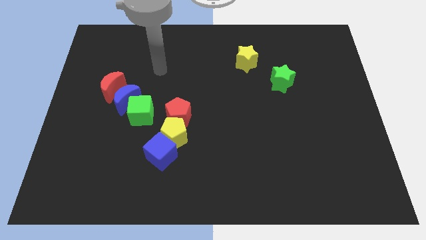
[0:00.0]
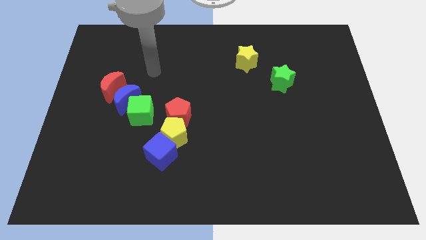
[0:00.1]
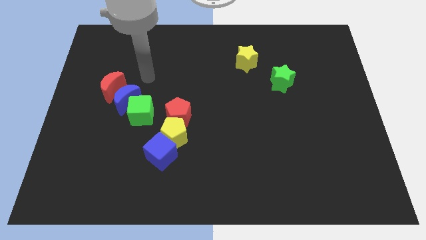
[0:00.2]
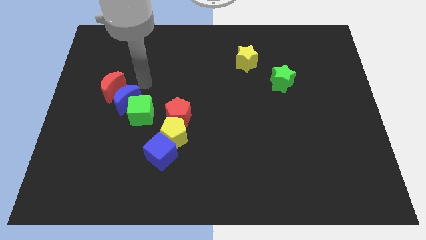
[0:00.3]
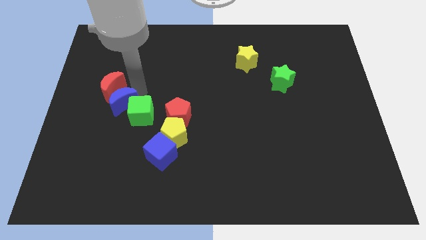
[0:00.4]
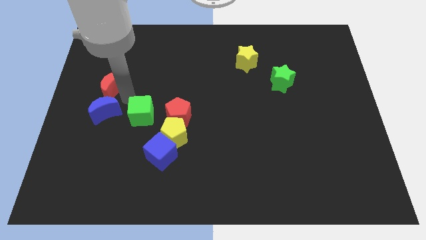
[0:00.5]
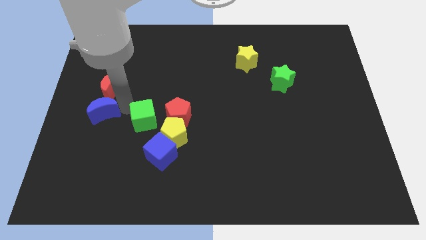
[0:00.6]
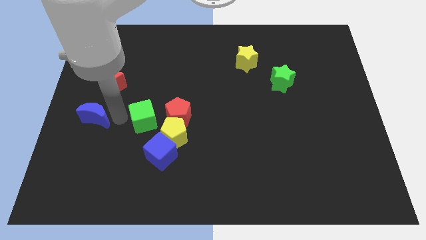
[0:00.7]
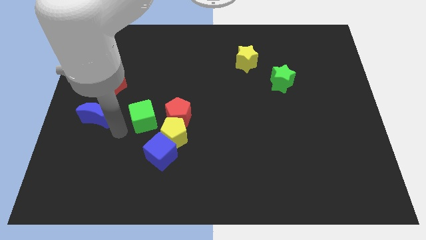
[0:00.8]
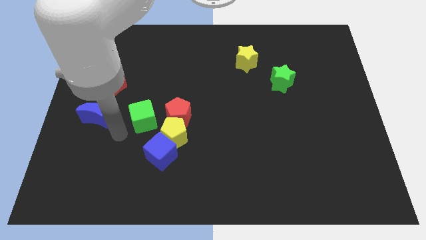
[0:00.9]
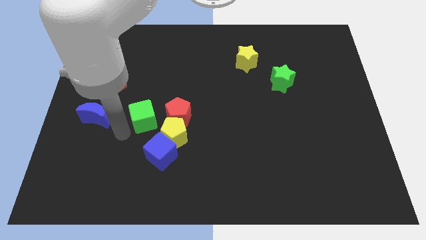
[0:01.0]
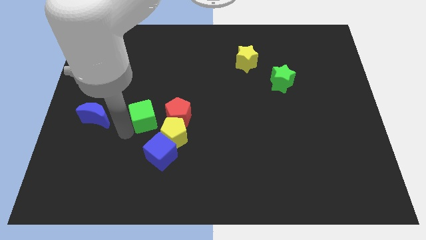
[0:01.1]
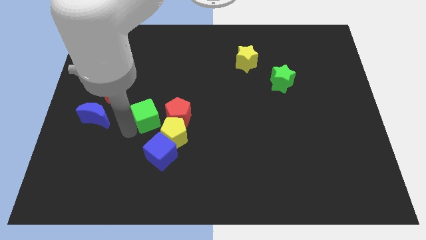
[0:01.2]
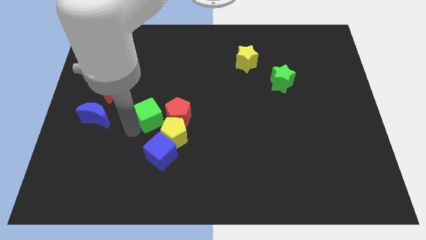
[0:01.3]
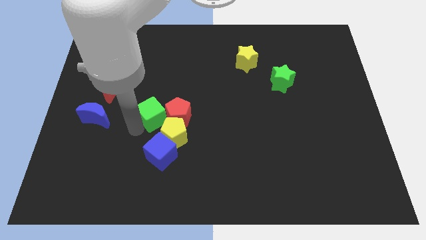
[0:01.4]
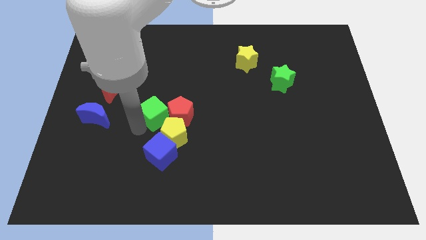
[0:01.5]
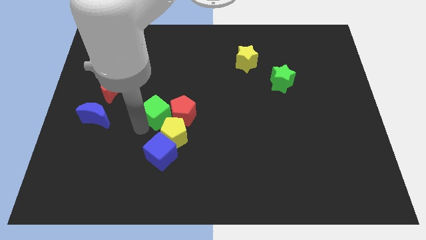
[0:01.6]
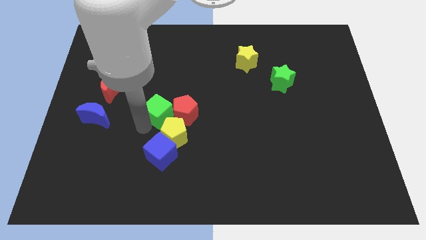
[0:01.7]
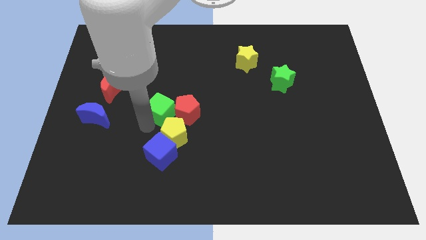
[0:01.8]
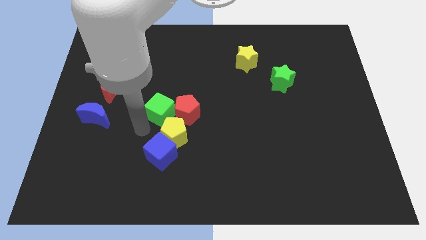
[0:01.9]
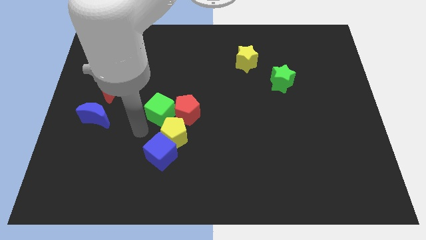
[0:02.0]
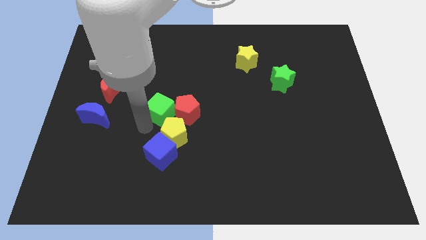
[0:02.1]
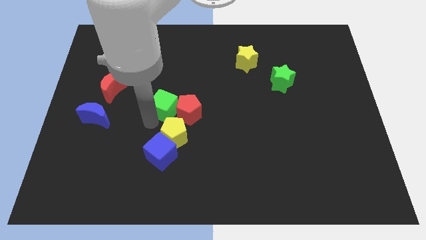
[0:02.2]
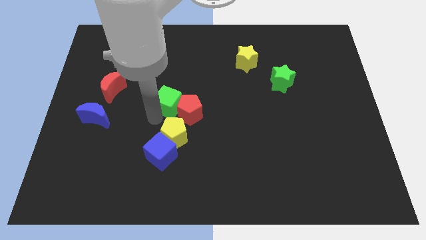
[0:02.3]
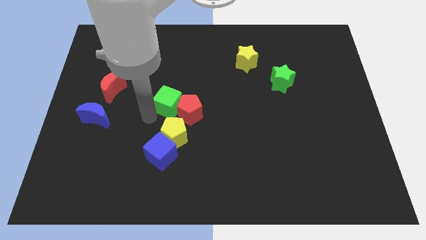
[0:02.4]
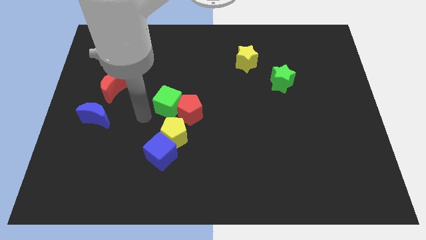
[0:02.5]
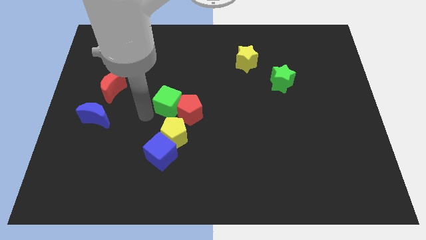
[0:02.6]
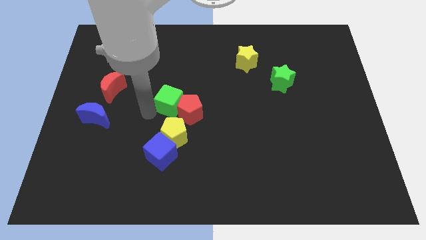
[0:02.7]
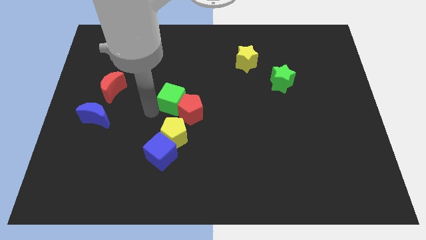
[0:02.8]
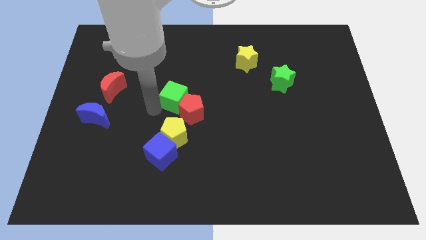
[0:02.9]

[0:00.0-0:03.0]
move the green cube right a little bit

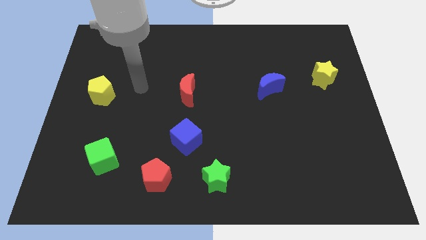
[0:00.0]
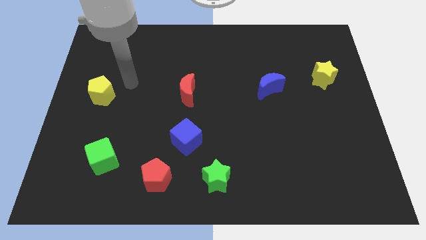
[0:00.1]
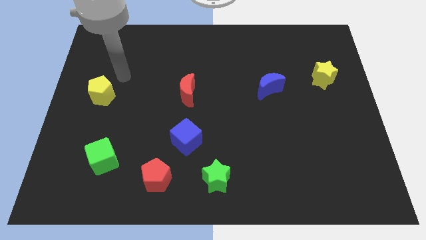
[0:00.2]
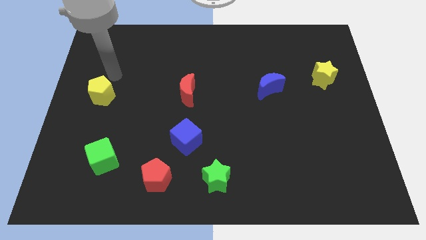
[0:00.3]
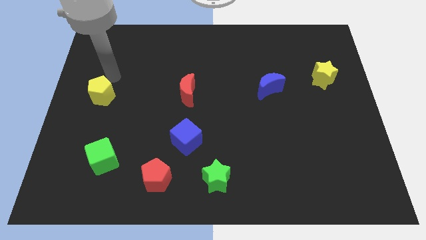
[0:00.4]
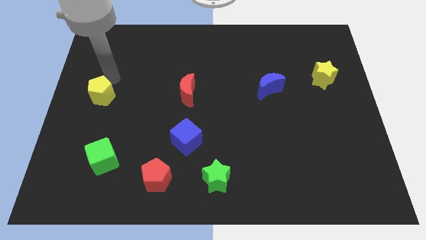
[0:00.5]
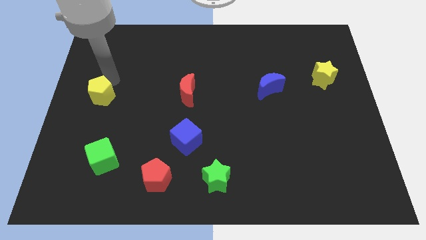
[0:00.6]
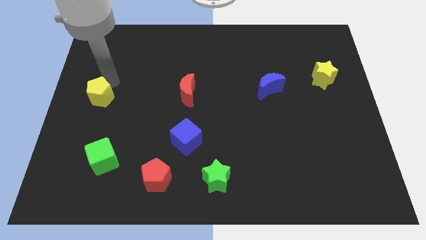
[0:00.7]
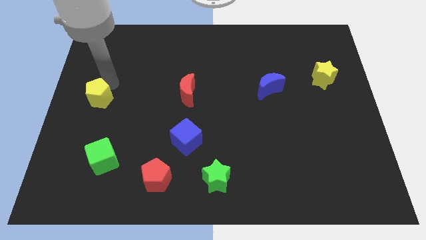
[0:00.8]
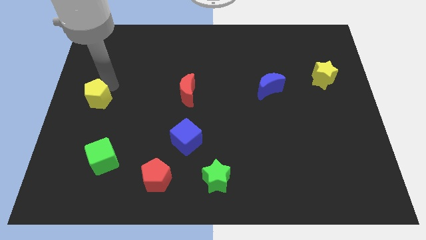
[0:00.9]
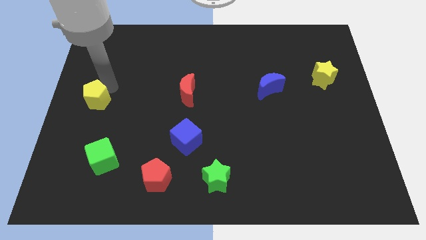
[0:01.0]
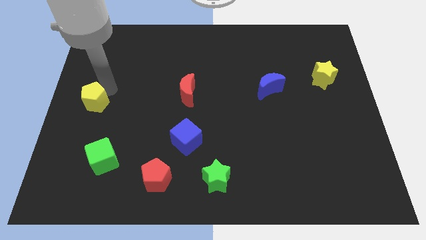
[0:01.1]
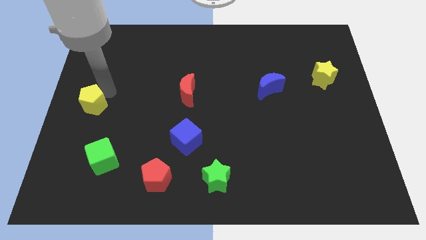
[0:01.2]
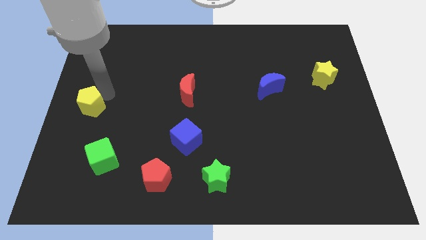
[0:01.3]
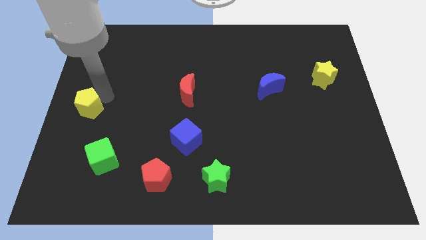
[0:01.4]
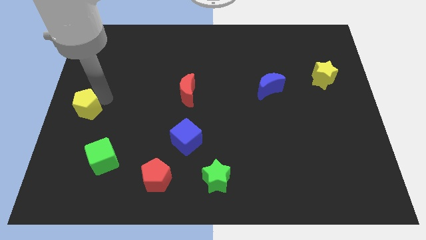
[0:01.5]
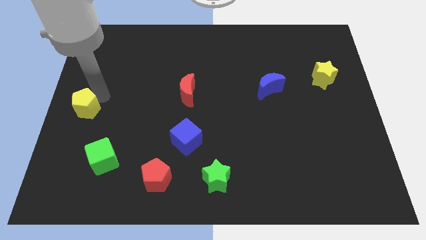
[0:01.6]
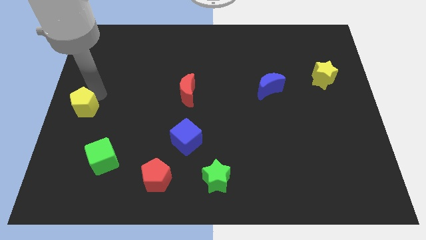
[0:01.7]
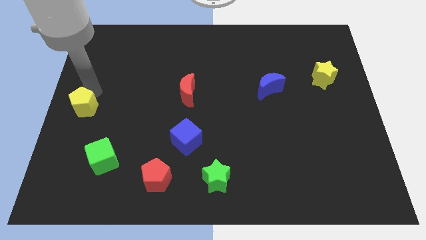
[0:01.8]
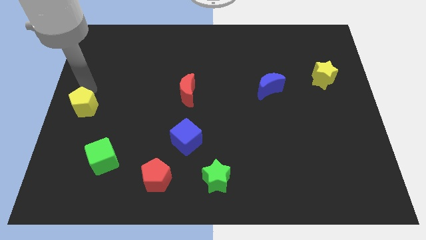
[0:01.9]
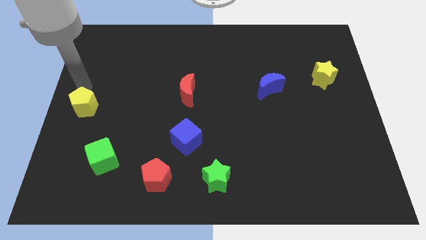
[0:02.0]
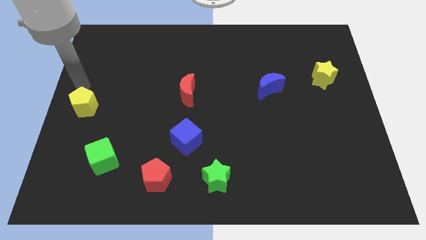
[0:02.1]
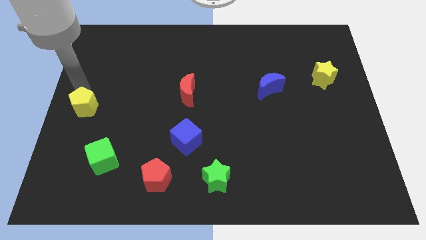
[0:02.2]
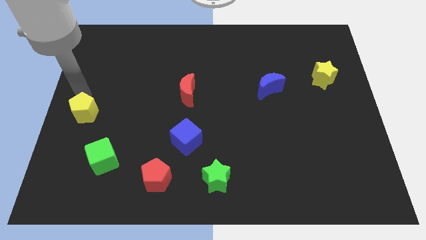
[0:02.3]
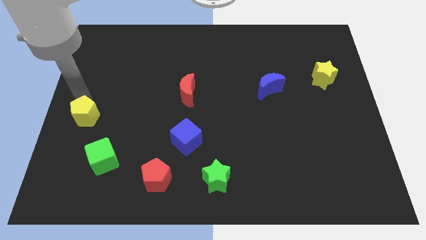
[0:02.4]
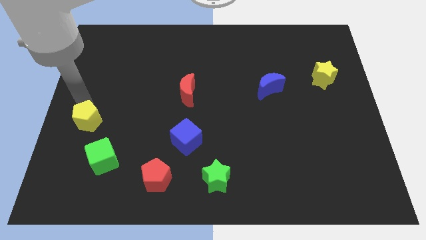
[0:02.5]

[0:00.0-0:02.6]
move the yellow pentagon down a little bit

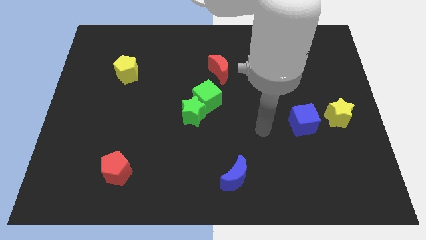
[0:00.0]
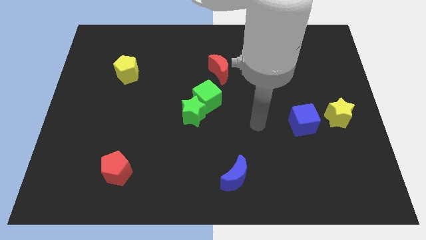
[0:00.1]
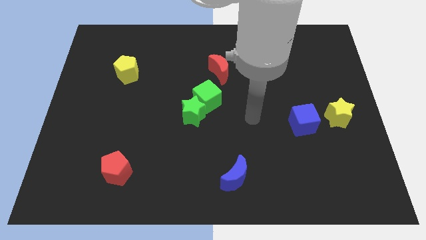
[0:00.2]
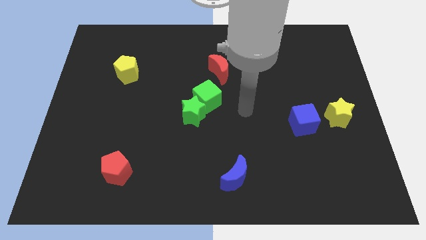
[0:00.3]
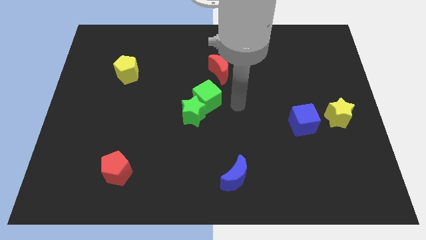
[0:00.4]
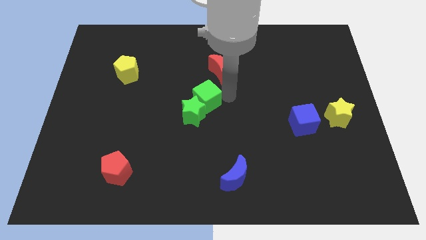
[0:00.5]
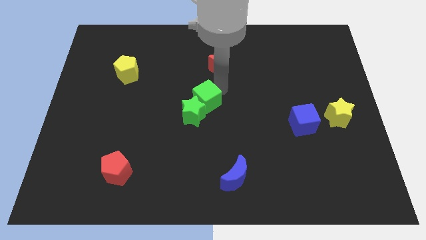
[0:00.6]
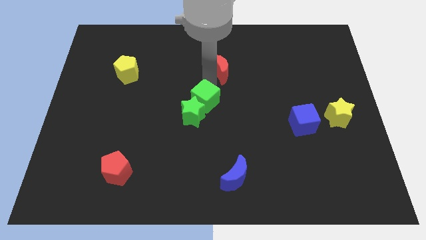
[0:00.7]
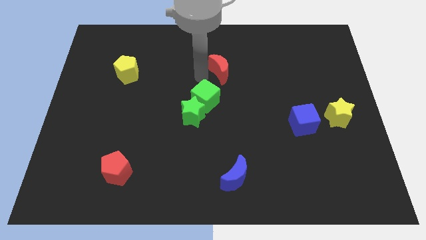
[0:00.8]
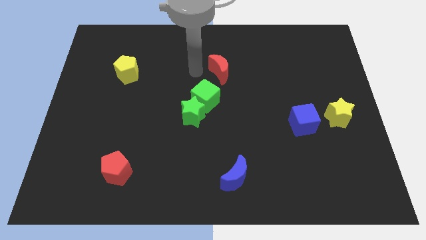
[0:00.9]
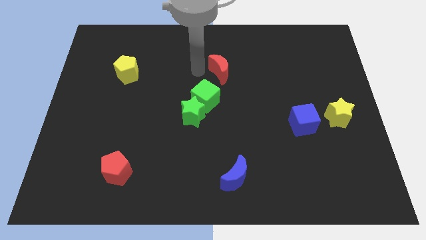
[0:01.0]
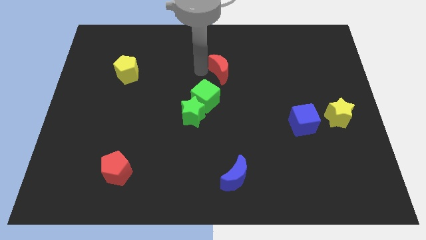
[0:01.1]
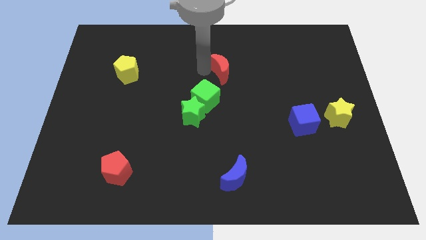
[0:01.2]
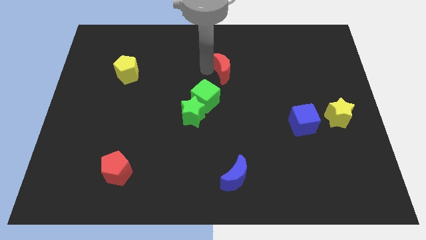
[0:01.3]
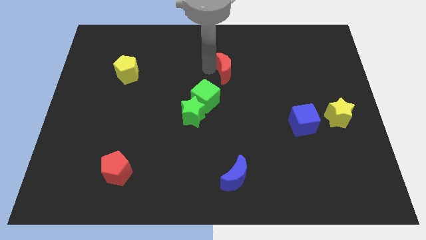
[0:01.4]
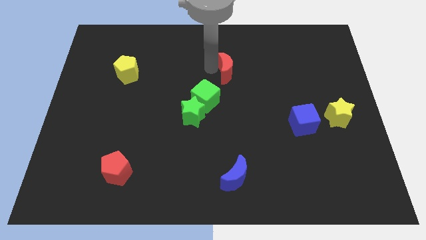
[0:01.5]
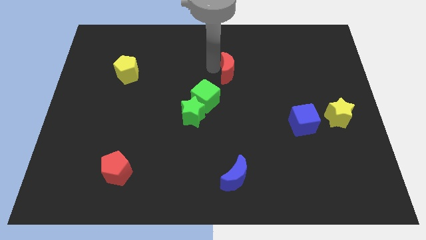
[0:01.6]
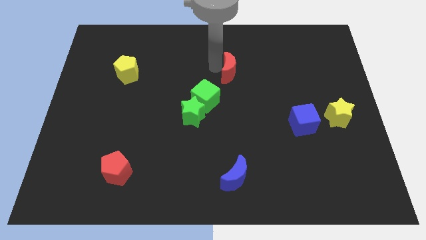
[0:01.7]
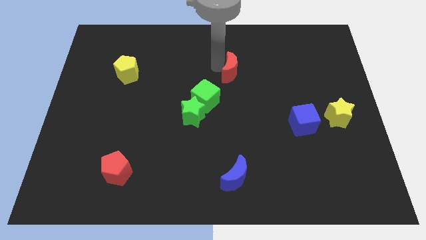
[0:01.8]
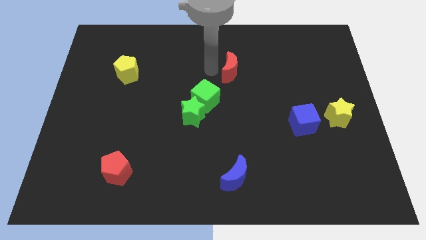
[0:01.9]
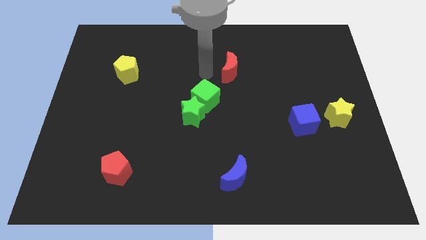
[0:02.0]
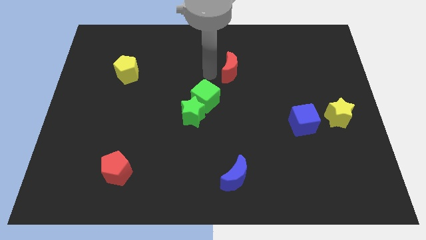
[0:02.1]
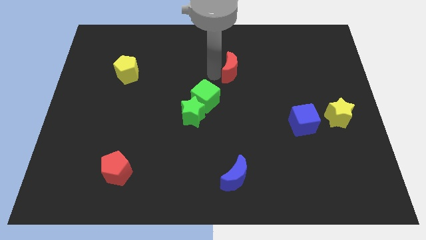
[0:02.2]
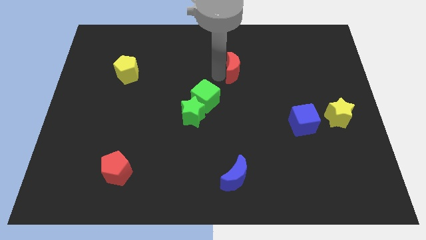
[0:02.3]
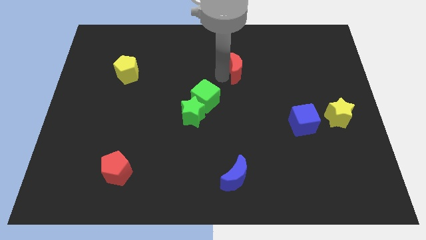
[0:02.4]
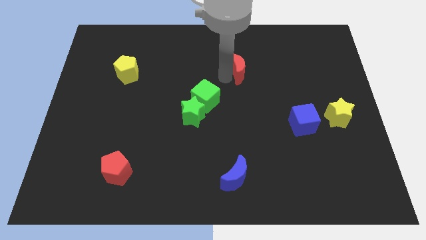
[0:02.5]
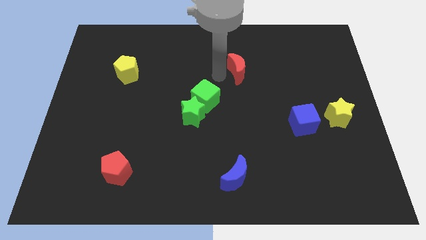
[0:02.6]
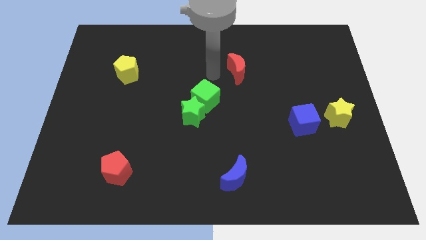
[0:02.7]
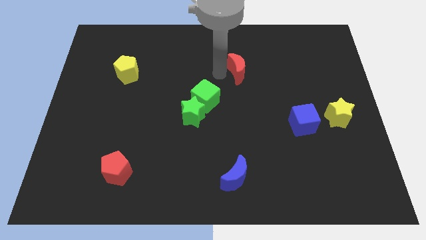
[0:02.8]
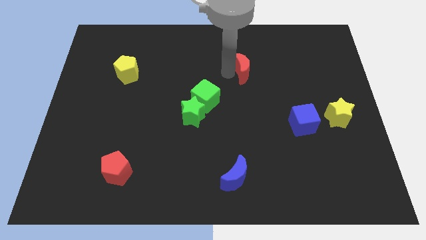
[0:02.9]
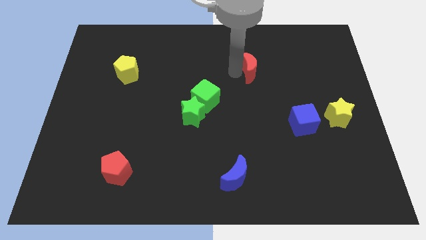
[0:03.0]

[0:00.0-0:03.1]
slide the red moon right somewhat

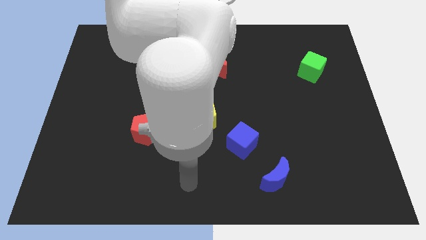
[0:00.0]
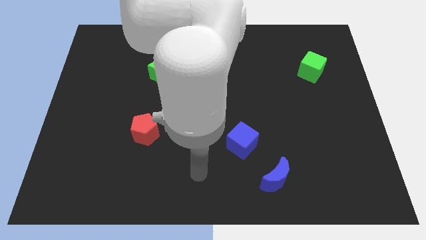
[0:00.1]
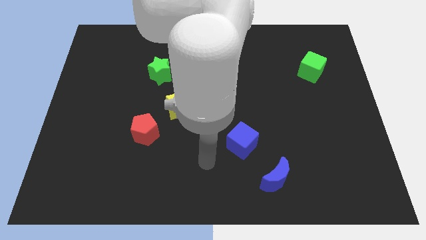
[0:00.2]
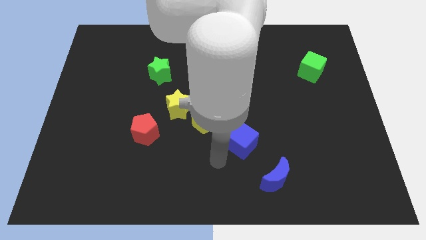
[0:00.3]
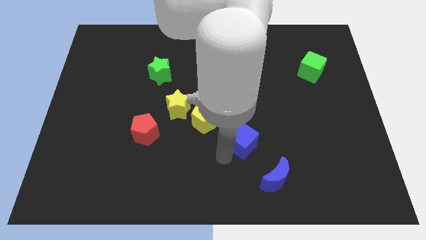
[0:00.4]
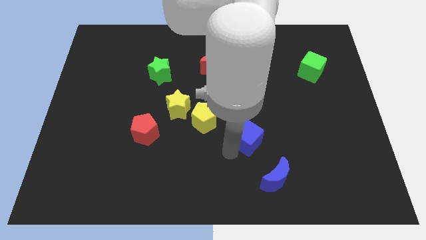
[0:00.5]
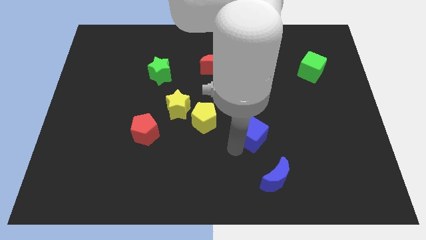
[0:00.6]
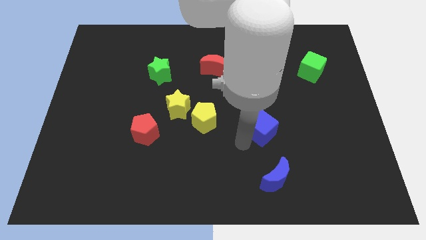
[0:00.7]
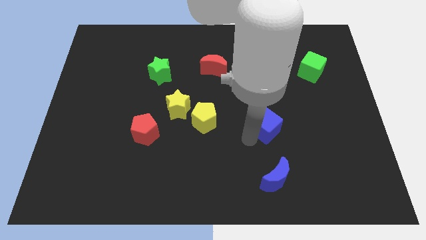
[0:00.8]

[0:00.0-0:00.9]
slide the blue cube slightly diagonally upwards and right
